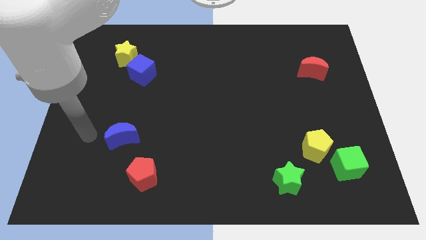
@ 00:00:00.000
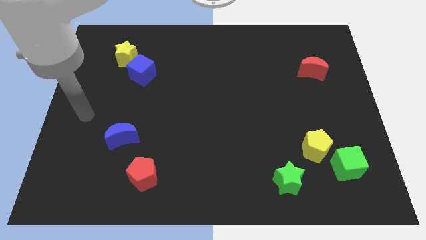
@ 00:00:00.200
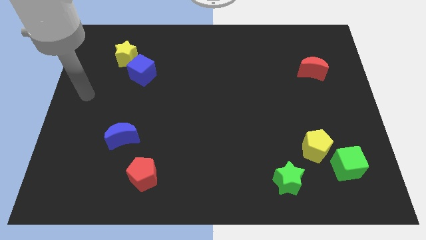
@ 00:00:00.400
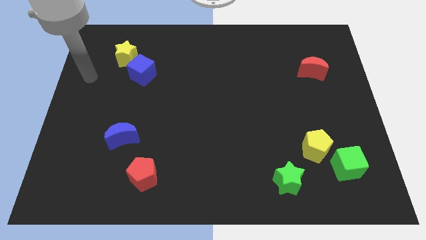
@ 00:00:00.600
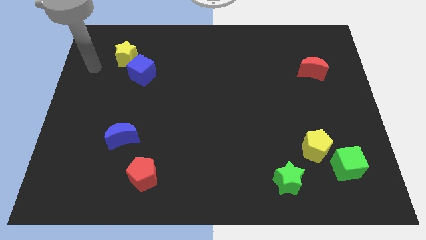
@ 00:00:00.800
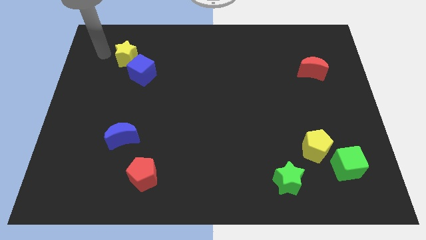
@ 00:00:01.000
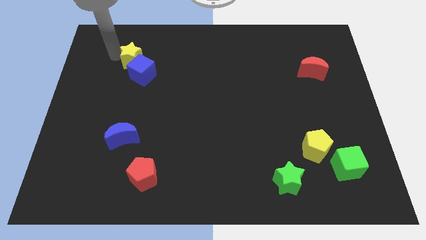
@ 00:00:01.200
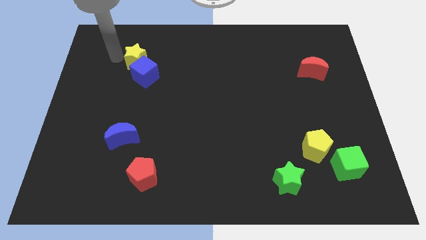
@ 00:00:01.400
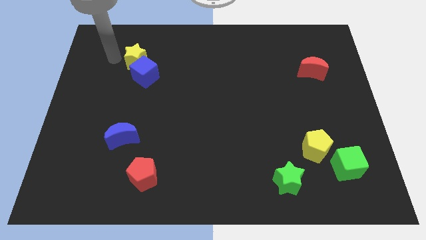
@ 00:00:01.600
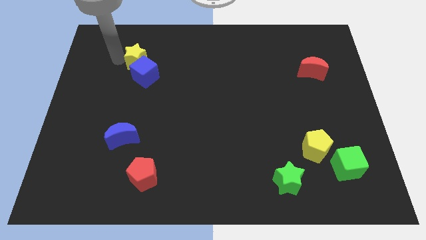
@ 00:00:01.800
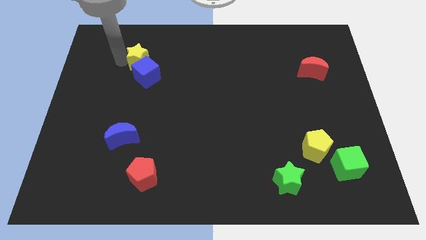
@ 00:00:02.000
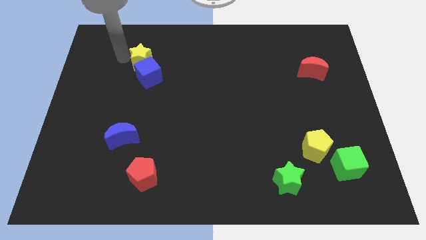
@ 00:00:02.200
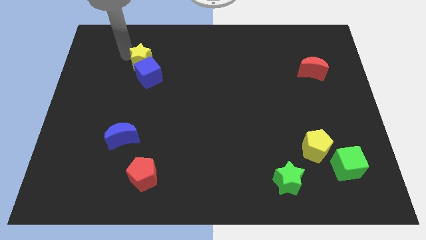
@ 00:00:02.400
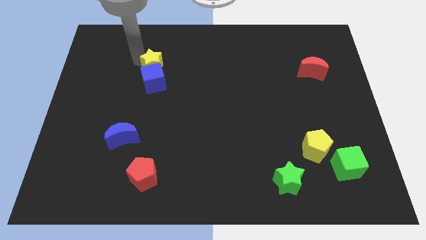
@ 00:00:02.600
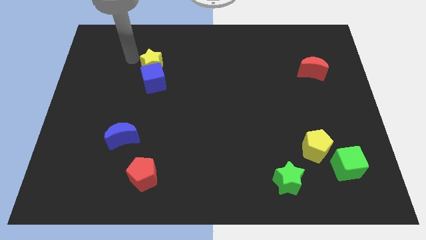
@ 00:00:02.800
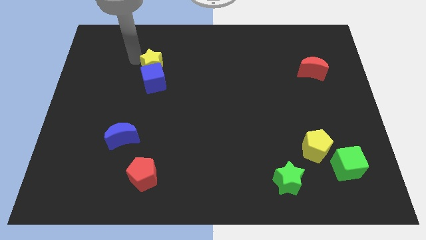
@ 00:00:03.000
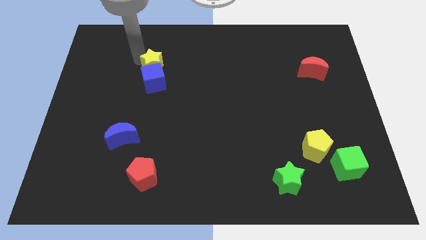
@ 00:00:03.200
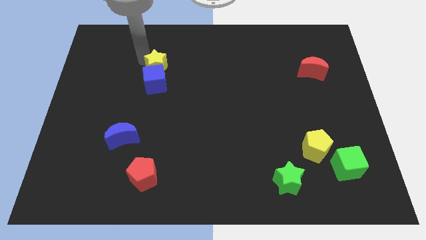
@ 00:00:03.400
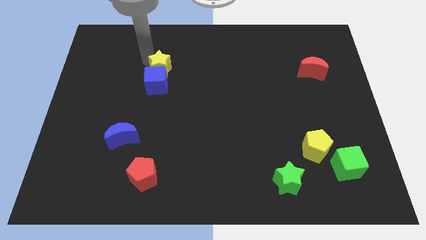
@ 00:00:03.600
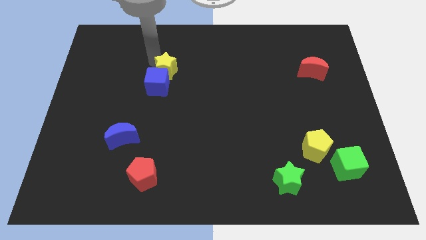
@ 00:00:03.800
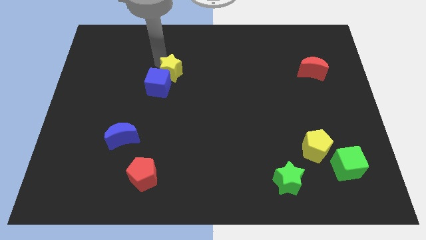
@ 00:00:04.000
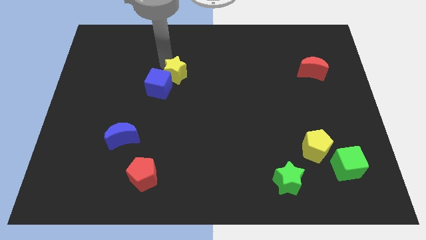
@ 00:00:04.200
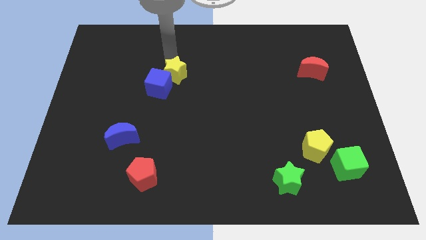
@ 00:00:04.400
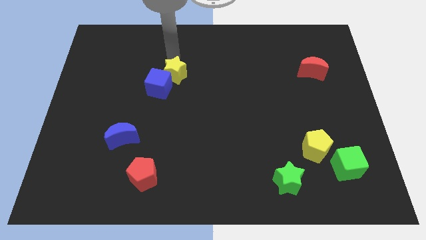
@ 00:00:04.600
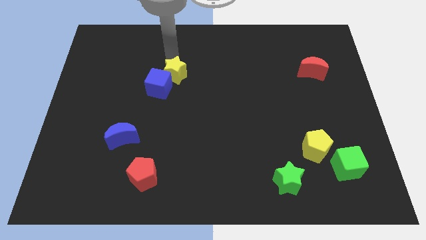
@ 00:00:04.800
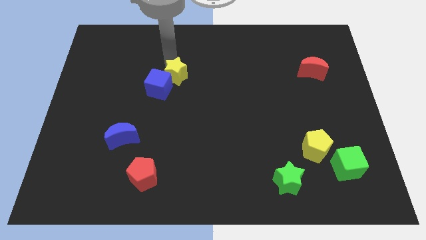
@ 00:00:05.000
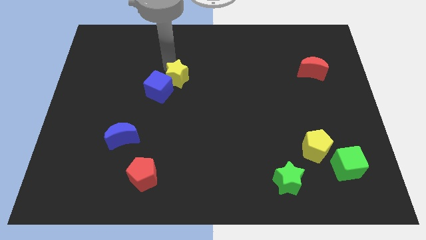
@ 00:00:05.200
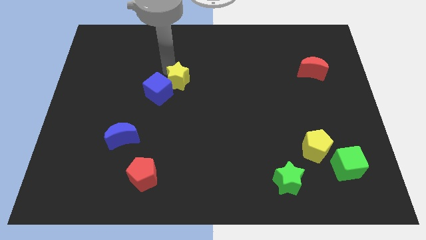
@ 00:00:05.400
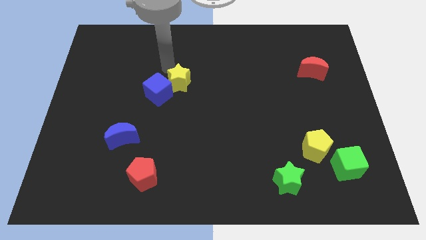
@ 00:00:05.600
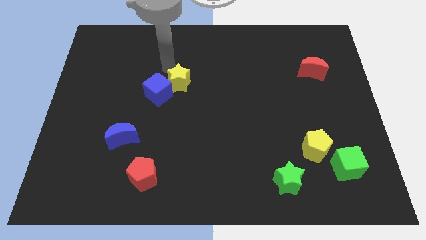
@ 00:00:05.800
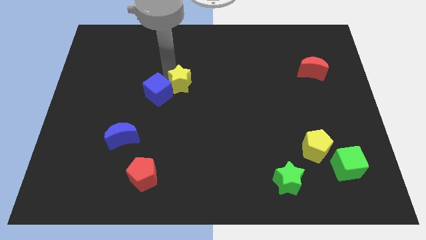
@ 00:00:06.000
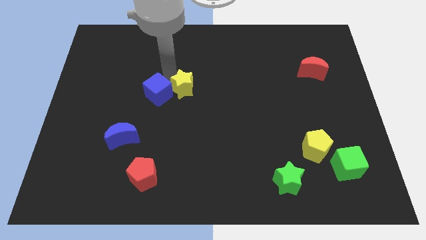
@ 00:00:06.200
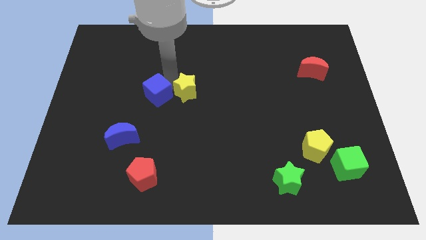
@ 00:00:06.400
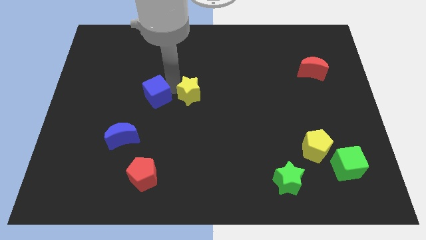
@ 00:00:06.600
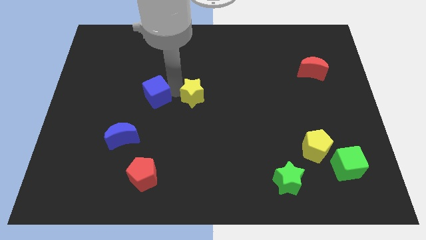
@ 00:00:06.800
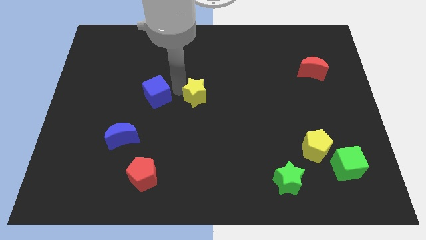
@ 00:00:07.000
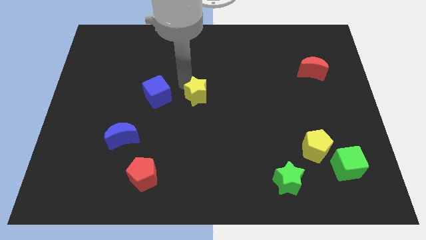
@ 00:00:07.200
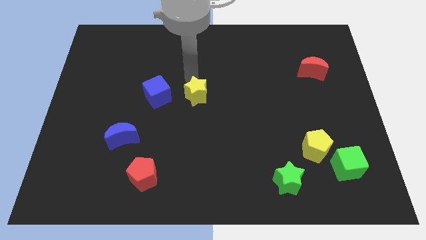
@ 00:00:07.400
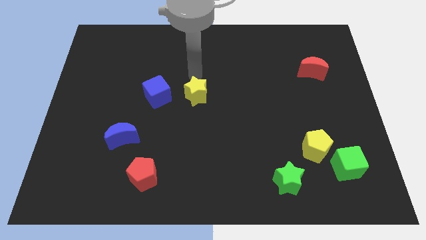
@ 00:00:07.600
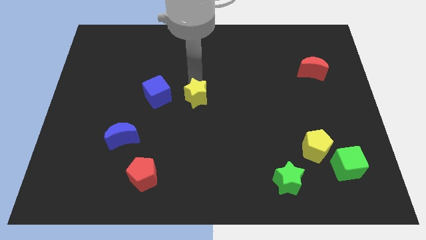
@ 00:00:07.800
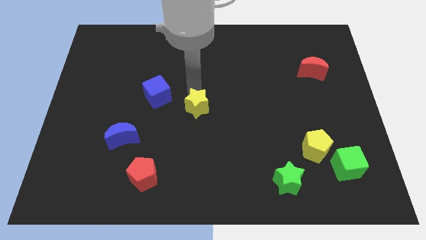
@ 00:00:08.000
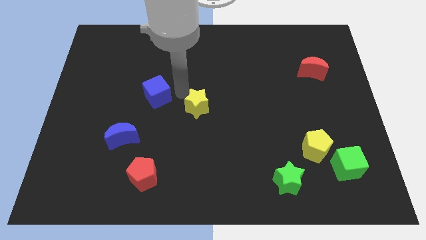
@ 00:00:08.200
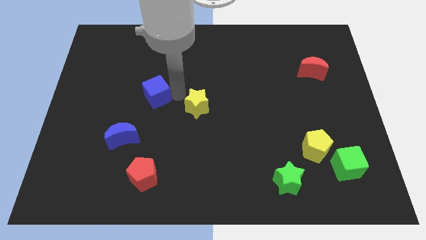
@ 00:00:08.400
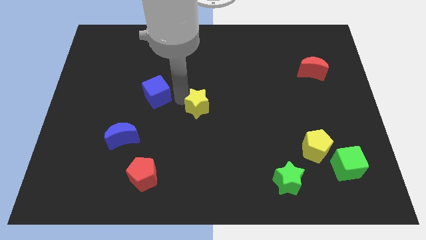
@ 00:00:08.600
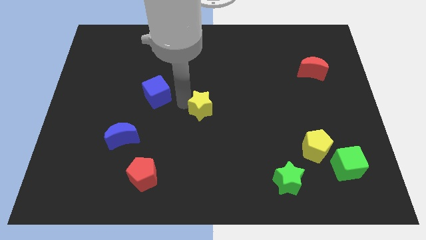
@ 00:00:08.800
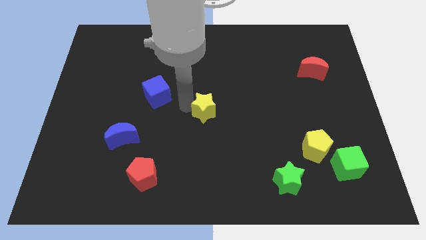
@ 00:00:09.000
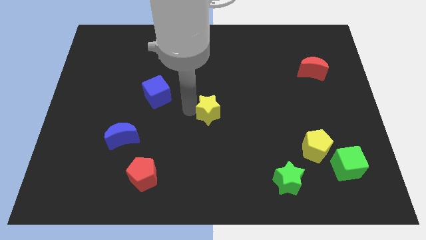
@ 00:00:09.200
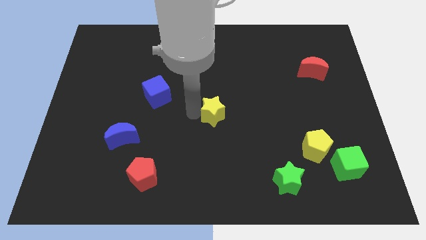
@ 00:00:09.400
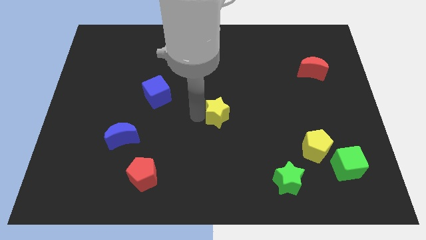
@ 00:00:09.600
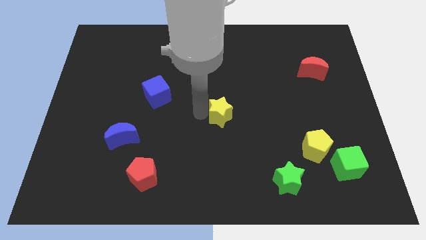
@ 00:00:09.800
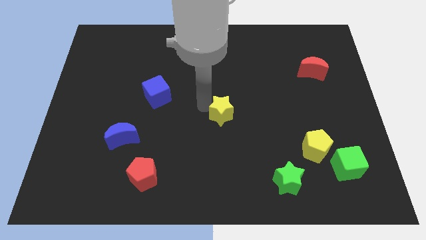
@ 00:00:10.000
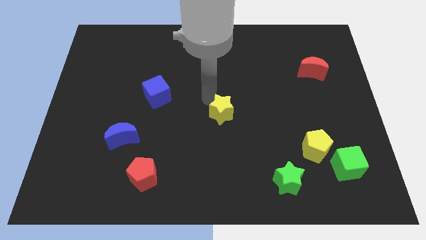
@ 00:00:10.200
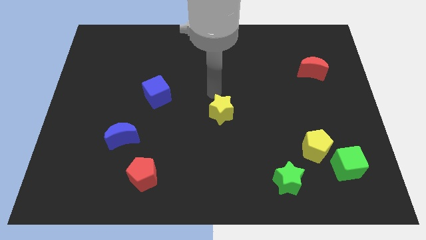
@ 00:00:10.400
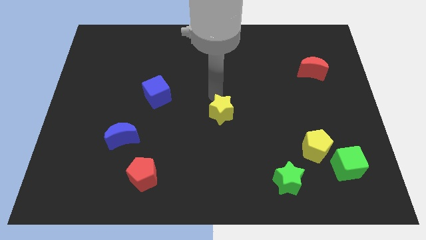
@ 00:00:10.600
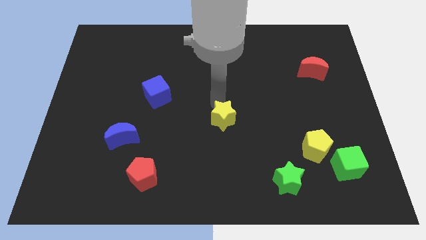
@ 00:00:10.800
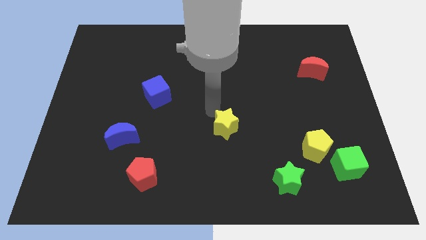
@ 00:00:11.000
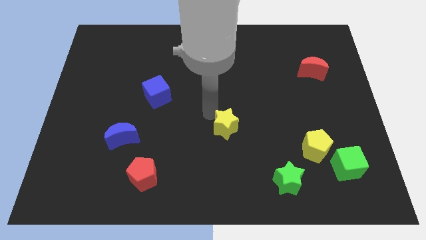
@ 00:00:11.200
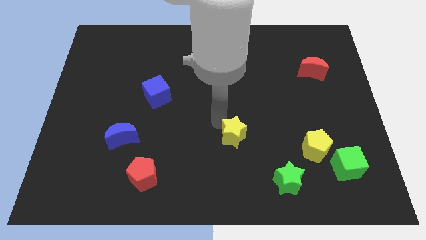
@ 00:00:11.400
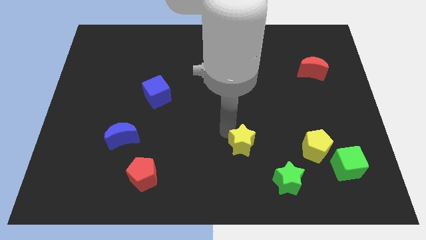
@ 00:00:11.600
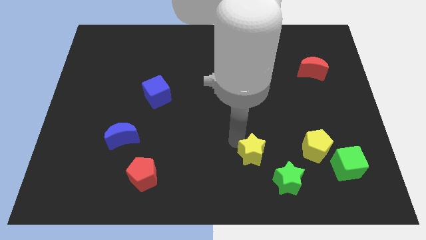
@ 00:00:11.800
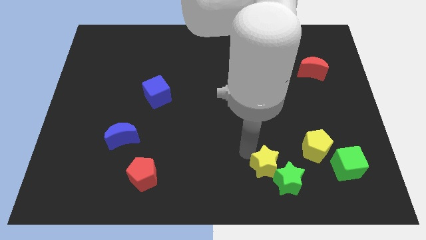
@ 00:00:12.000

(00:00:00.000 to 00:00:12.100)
push the yellow star next to the green star

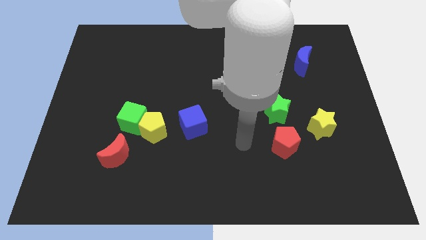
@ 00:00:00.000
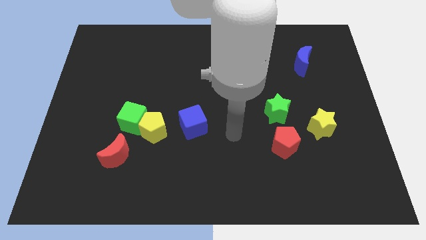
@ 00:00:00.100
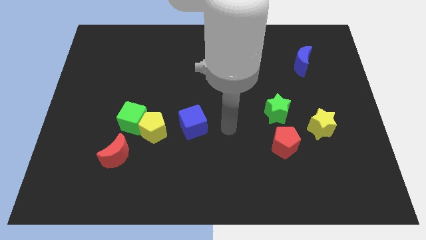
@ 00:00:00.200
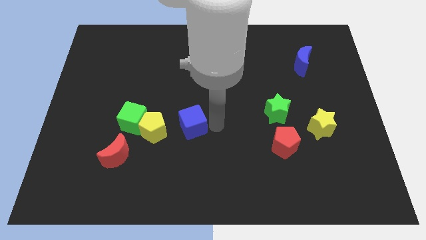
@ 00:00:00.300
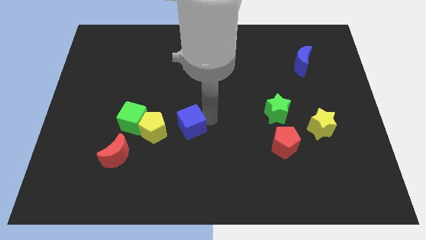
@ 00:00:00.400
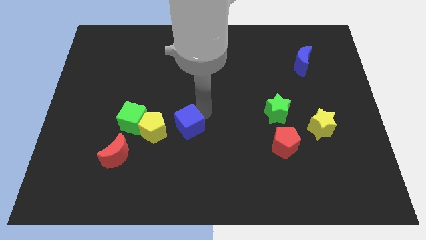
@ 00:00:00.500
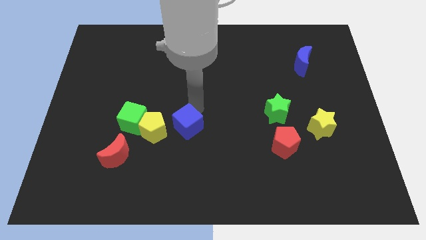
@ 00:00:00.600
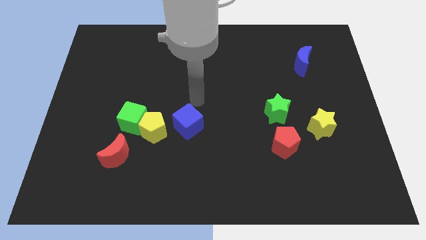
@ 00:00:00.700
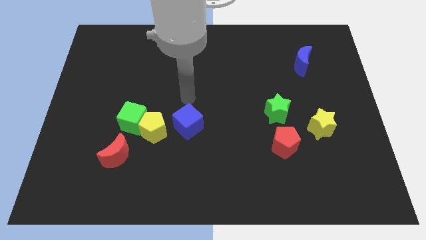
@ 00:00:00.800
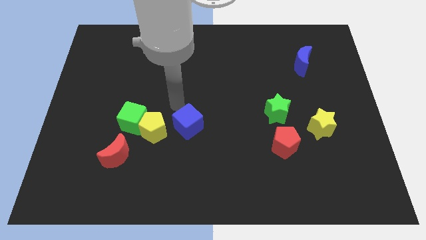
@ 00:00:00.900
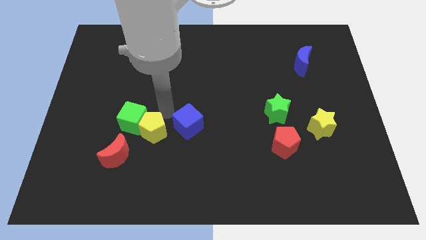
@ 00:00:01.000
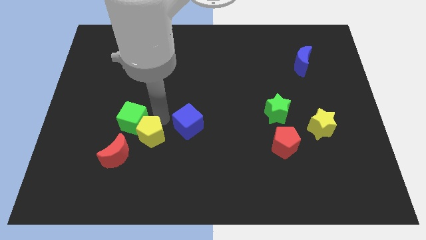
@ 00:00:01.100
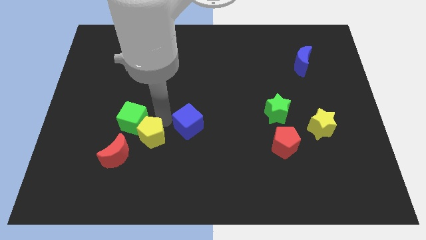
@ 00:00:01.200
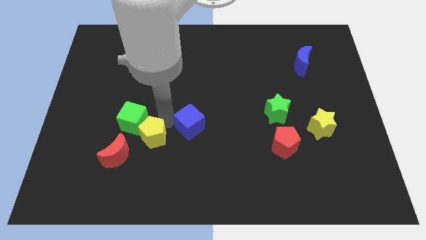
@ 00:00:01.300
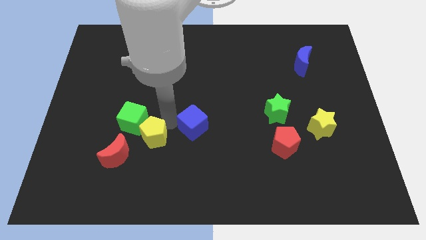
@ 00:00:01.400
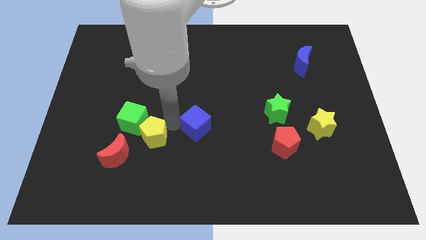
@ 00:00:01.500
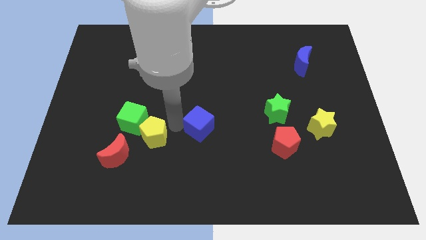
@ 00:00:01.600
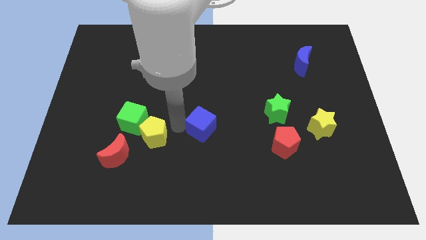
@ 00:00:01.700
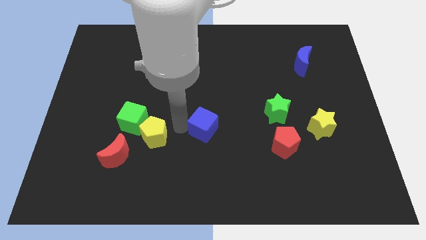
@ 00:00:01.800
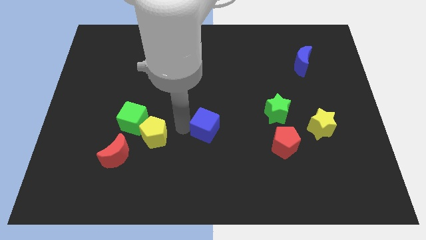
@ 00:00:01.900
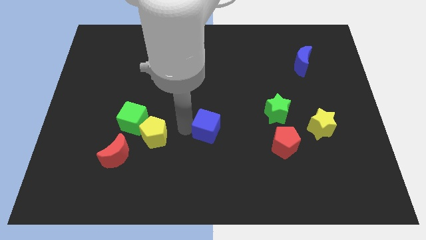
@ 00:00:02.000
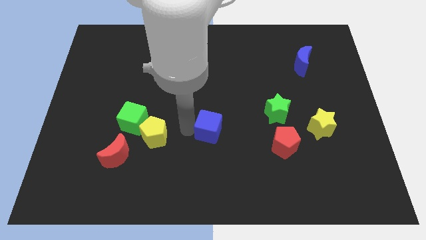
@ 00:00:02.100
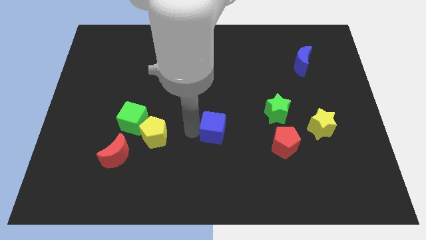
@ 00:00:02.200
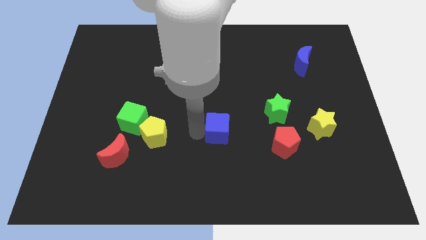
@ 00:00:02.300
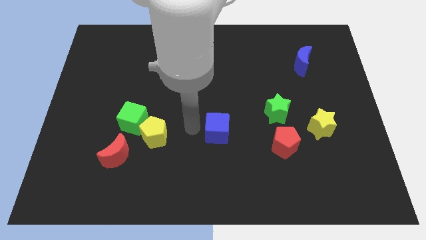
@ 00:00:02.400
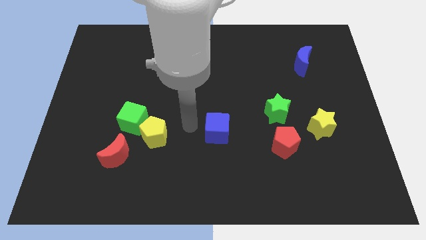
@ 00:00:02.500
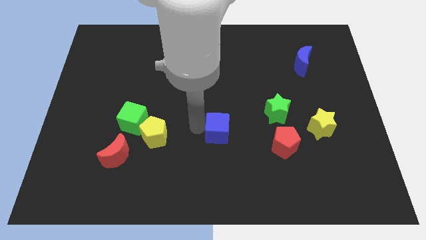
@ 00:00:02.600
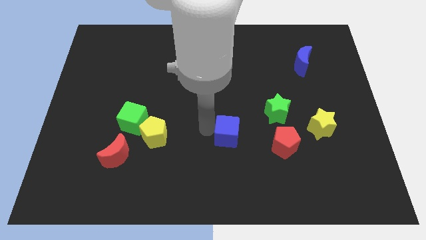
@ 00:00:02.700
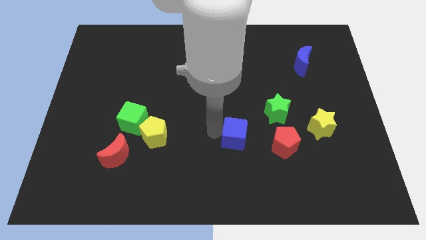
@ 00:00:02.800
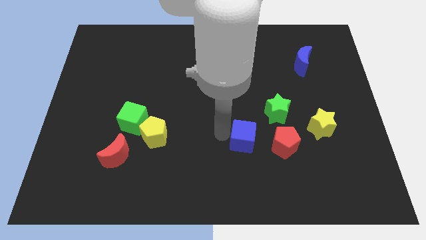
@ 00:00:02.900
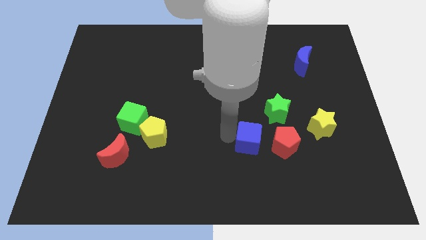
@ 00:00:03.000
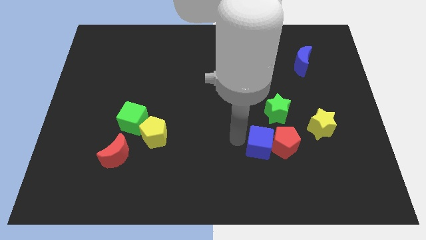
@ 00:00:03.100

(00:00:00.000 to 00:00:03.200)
put the blue cube close to the red pentagon
